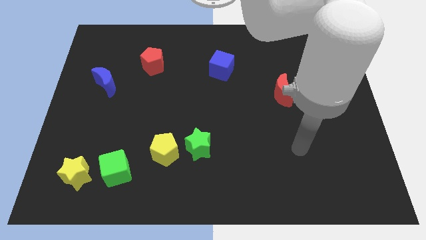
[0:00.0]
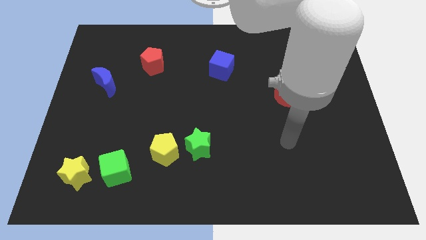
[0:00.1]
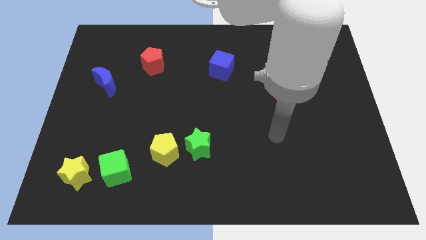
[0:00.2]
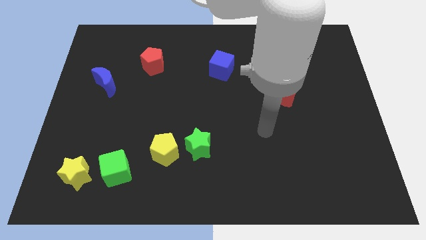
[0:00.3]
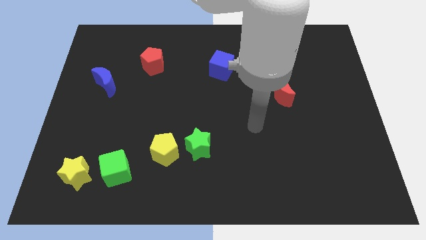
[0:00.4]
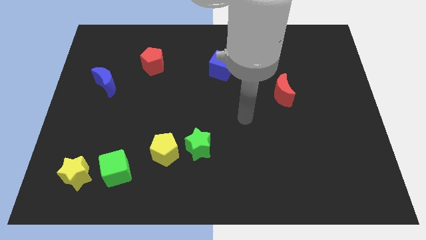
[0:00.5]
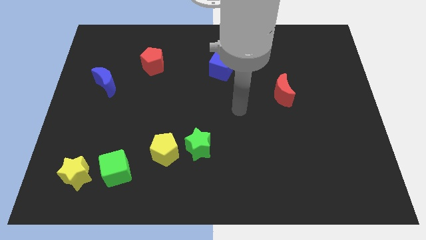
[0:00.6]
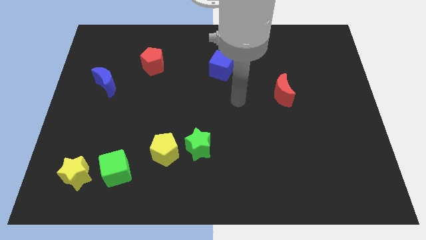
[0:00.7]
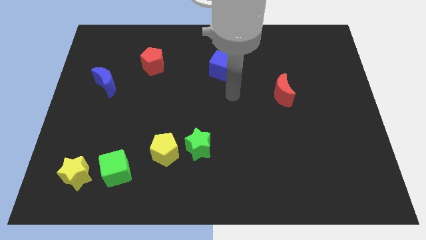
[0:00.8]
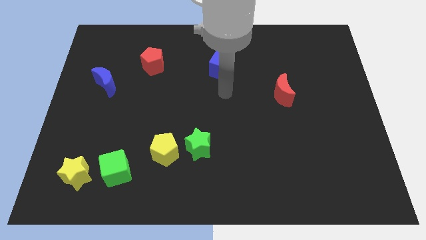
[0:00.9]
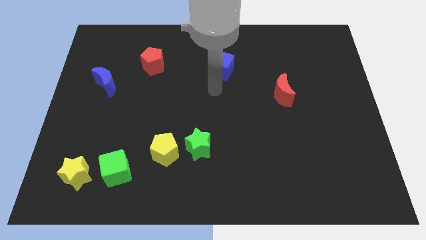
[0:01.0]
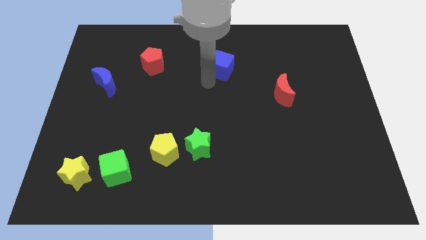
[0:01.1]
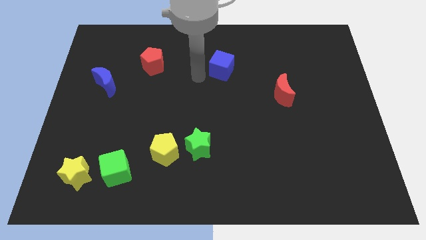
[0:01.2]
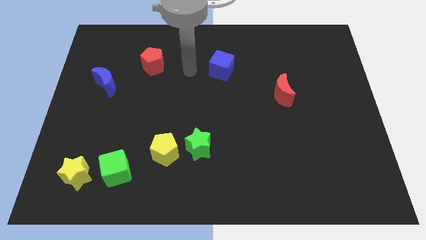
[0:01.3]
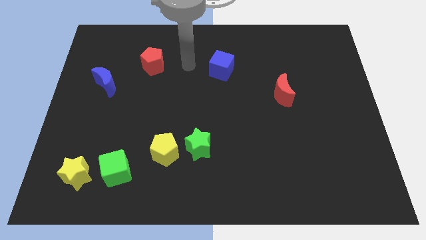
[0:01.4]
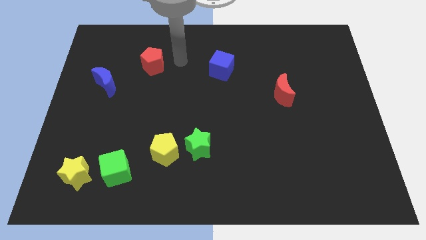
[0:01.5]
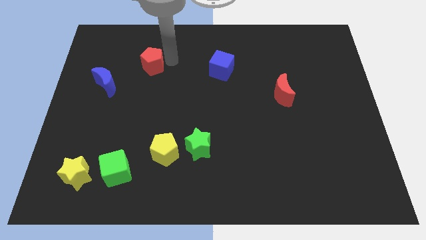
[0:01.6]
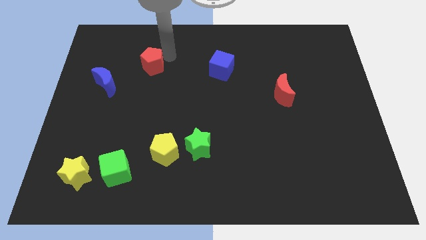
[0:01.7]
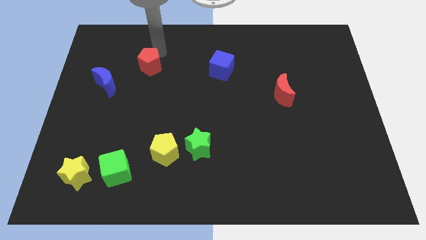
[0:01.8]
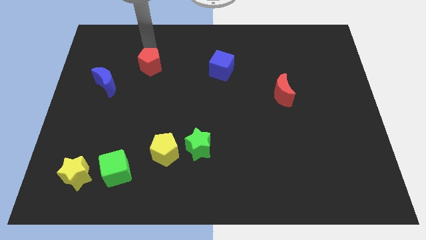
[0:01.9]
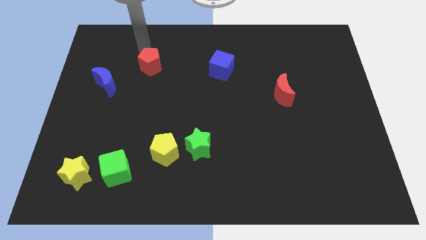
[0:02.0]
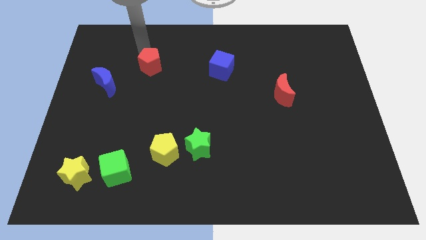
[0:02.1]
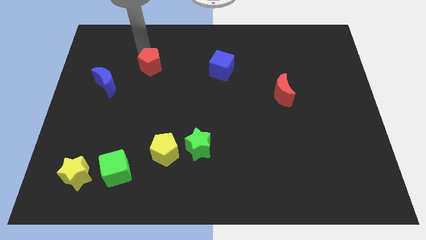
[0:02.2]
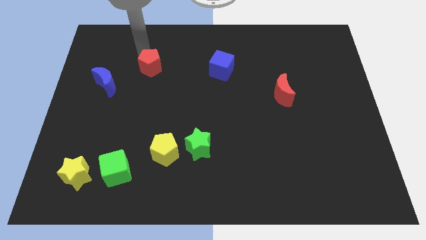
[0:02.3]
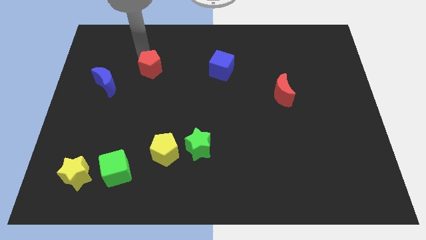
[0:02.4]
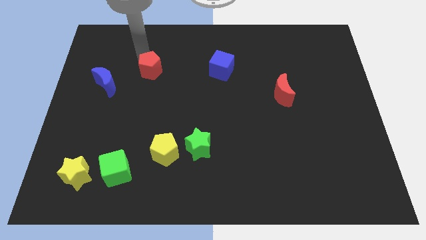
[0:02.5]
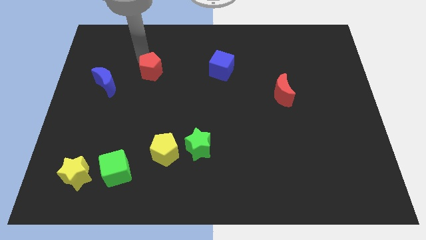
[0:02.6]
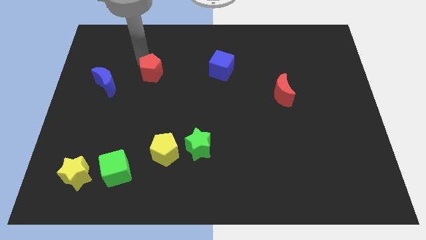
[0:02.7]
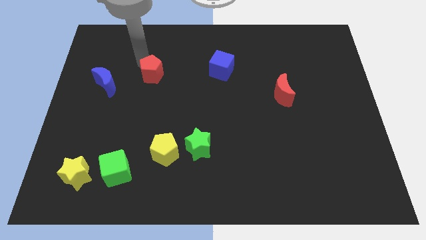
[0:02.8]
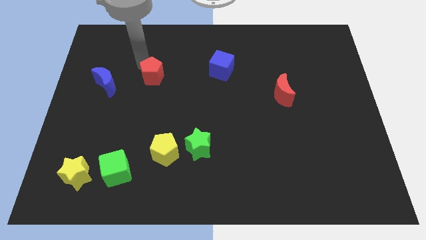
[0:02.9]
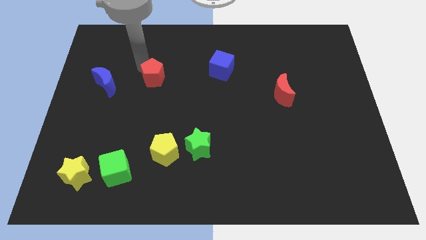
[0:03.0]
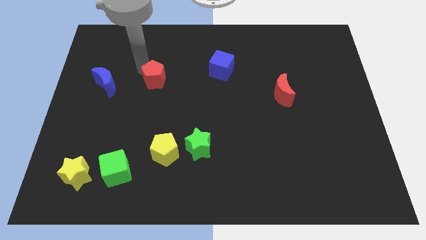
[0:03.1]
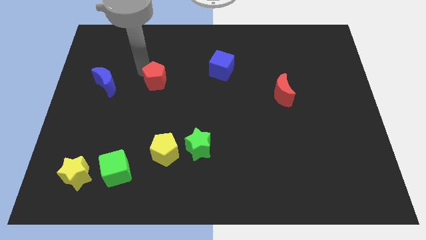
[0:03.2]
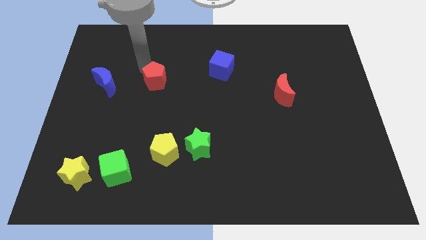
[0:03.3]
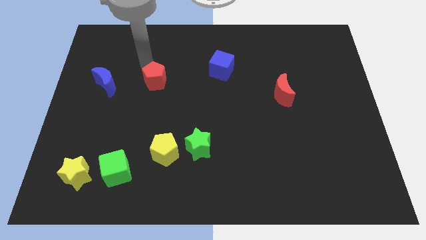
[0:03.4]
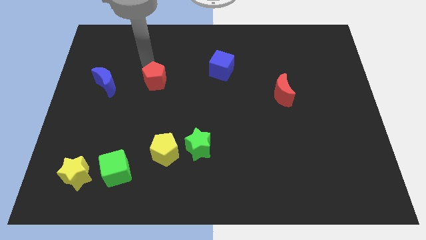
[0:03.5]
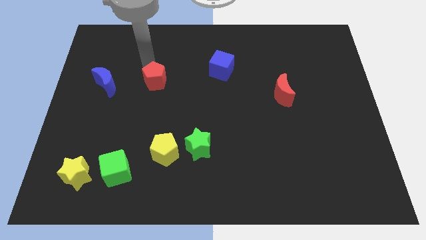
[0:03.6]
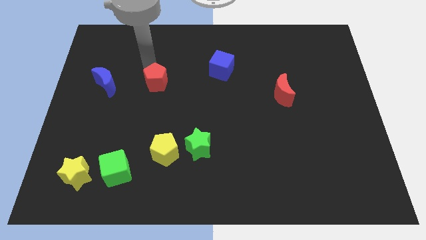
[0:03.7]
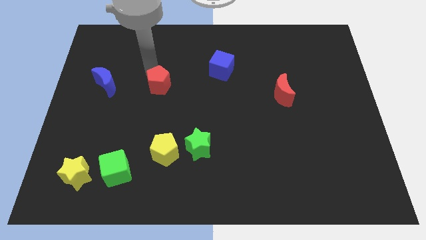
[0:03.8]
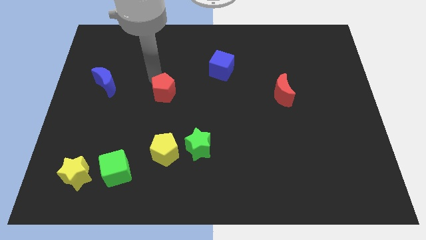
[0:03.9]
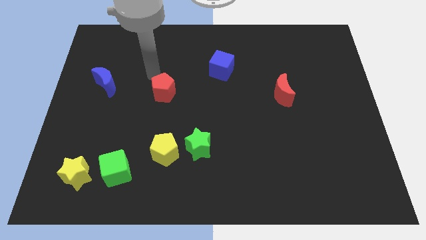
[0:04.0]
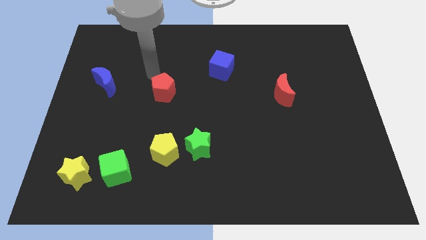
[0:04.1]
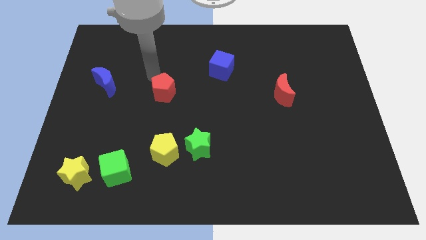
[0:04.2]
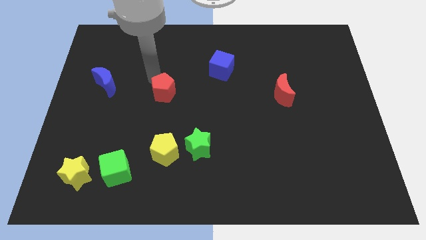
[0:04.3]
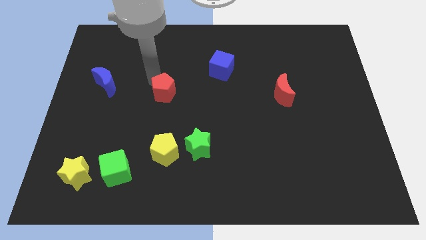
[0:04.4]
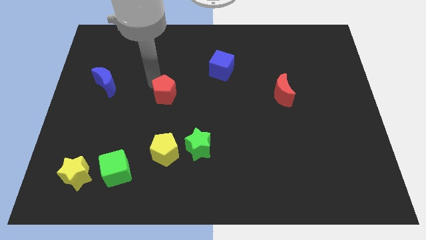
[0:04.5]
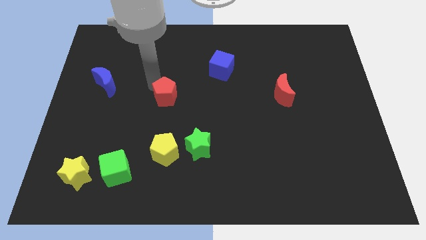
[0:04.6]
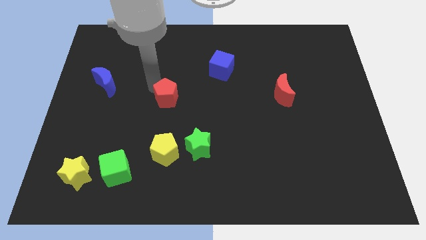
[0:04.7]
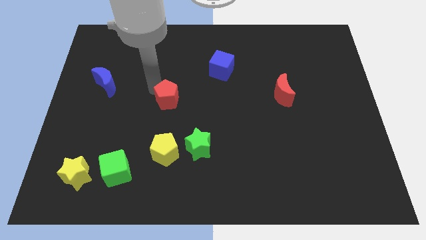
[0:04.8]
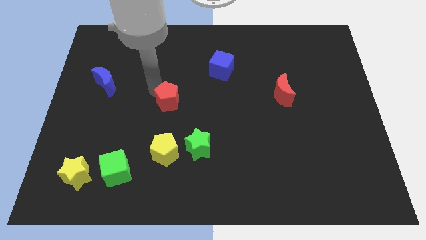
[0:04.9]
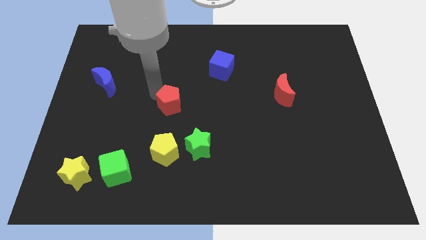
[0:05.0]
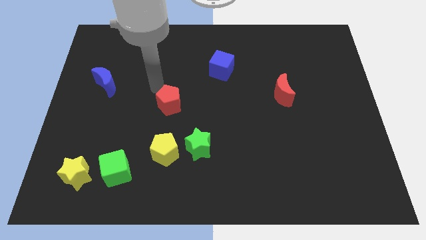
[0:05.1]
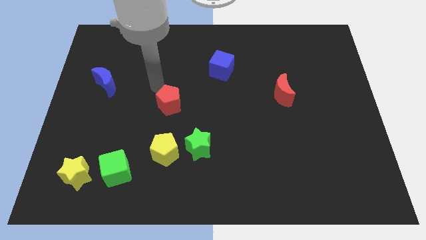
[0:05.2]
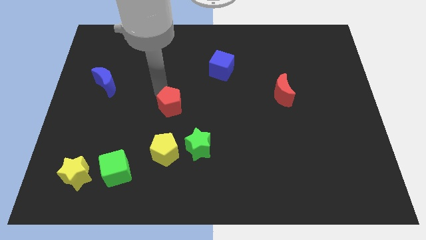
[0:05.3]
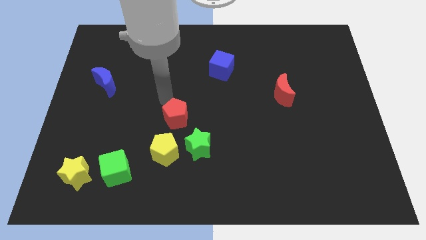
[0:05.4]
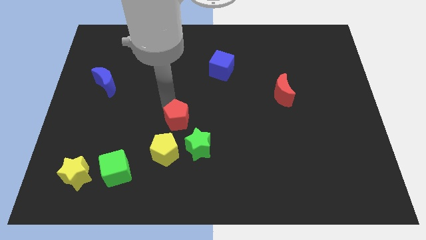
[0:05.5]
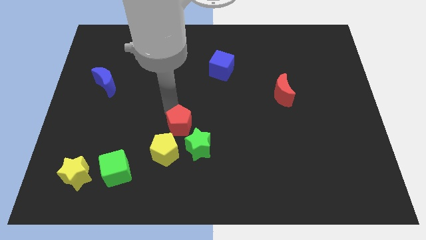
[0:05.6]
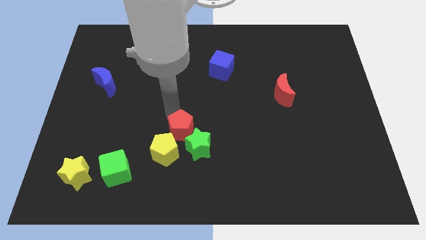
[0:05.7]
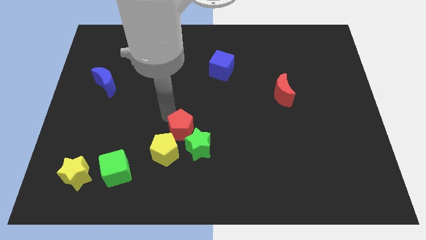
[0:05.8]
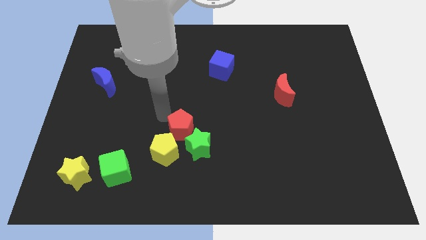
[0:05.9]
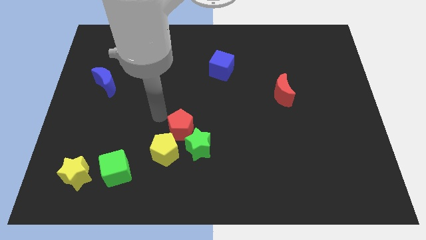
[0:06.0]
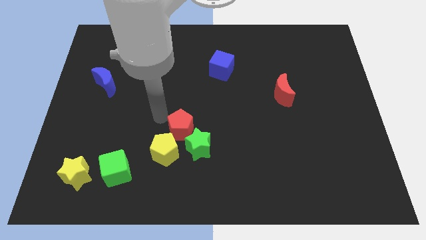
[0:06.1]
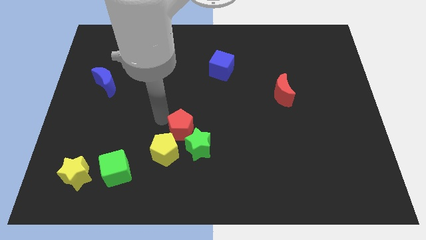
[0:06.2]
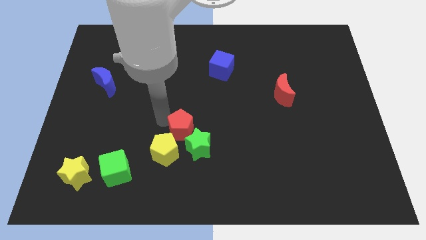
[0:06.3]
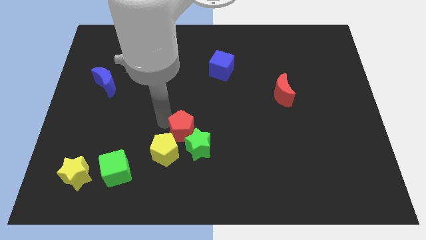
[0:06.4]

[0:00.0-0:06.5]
push the red pentagon close to the green star

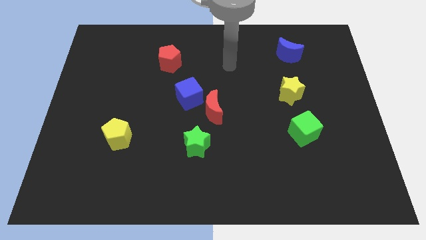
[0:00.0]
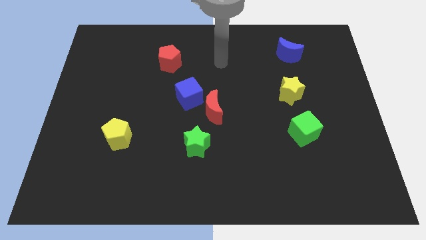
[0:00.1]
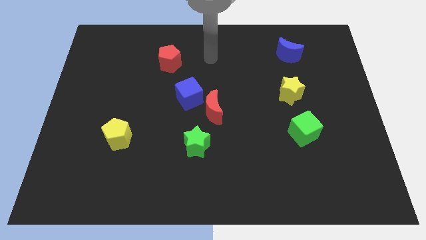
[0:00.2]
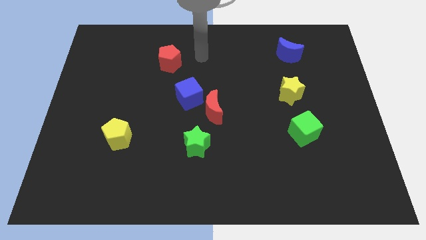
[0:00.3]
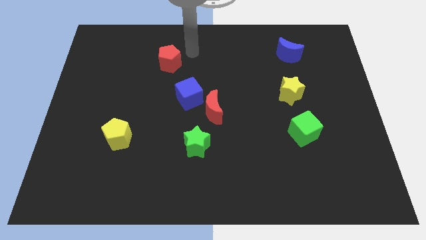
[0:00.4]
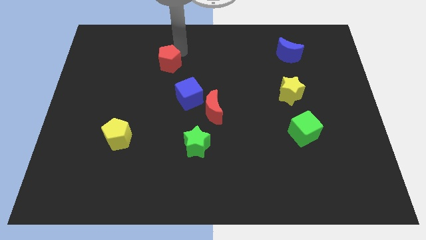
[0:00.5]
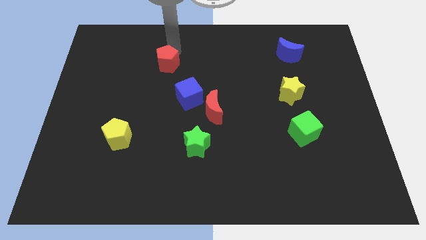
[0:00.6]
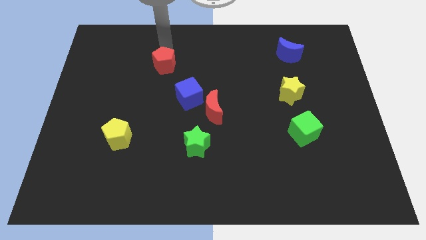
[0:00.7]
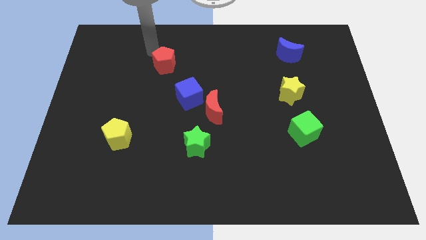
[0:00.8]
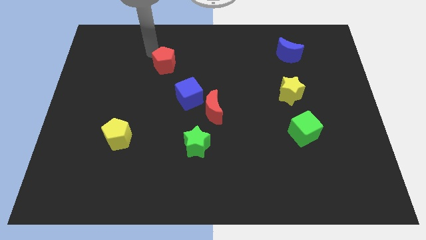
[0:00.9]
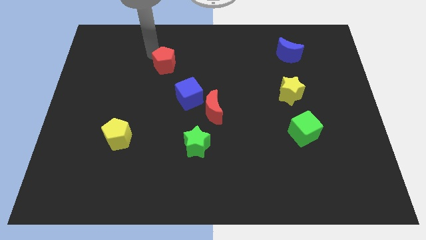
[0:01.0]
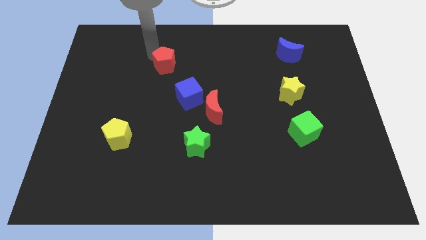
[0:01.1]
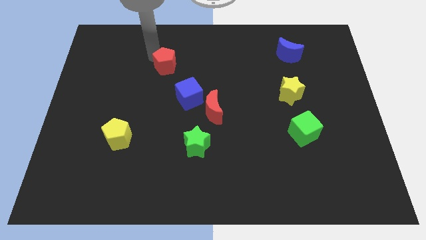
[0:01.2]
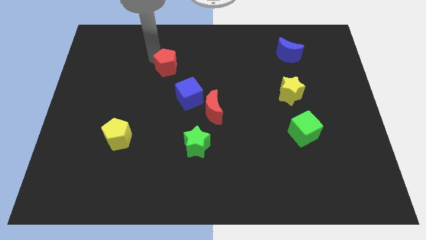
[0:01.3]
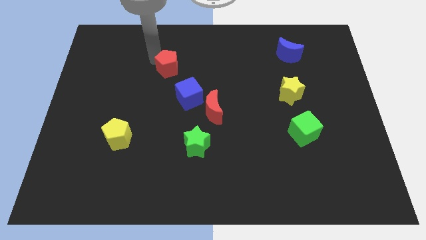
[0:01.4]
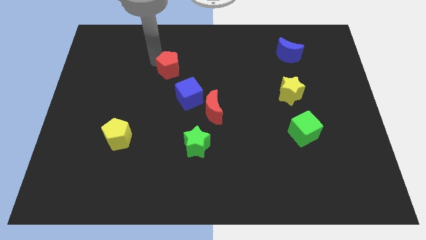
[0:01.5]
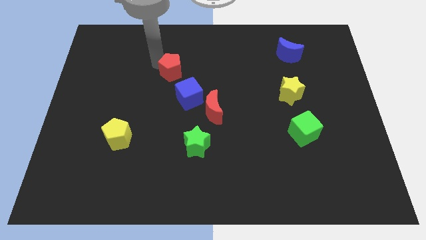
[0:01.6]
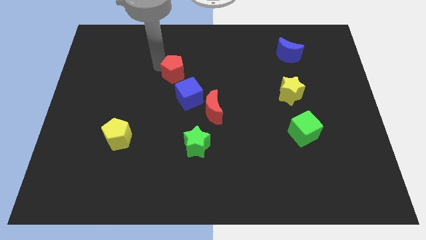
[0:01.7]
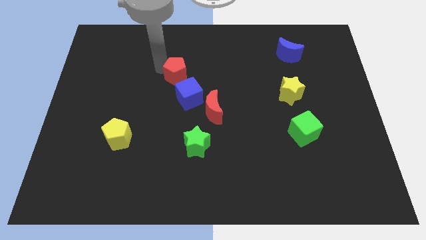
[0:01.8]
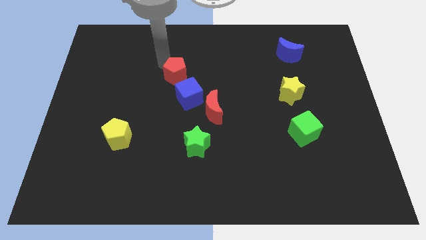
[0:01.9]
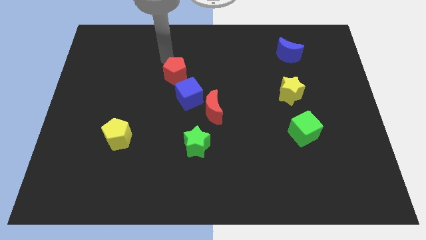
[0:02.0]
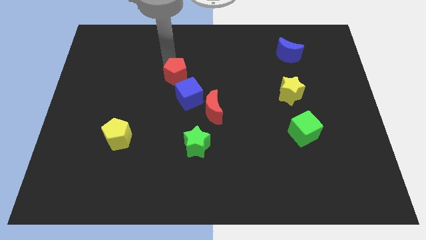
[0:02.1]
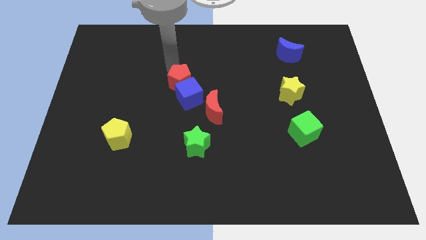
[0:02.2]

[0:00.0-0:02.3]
put the red pentagon next to the blue cube
